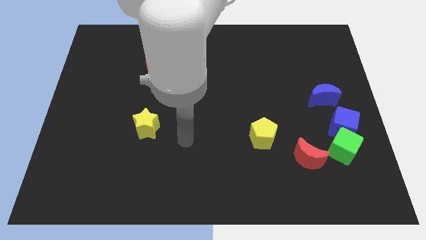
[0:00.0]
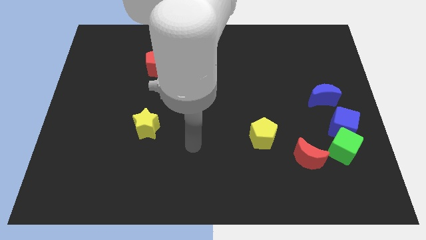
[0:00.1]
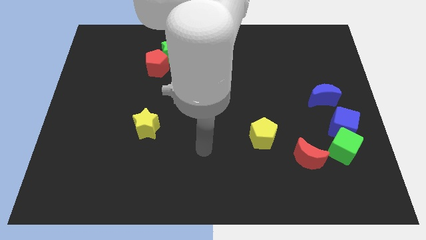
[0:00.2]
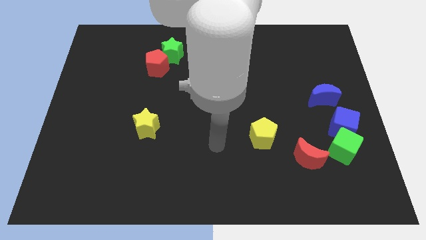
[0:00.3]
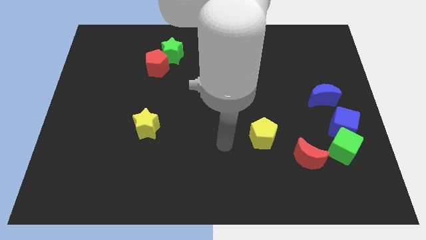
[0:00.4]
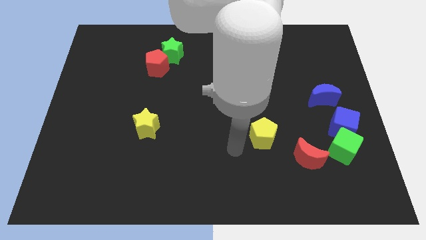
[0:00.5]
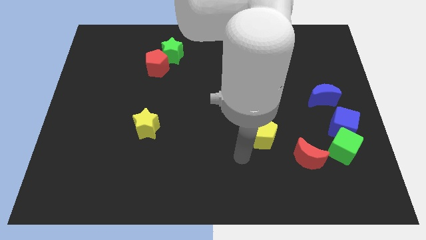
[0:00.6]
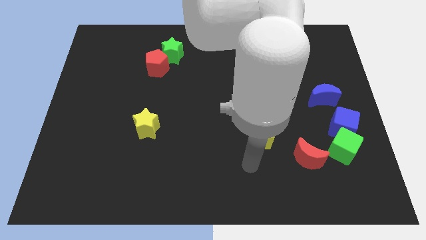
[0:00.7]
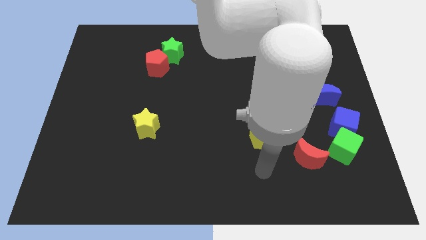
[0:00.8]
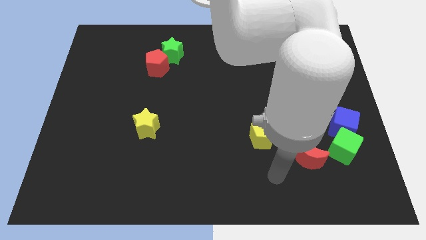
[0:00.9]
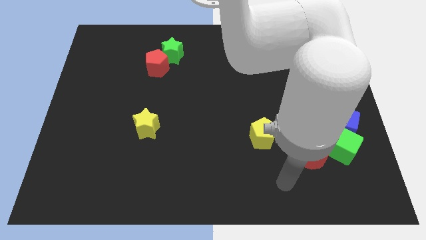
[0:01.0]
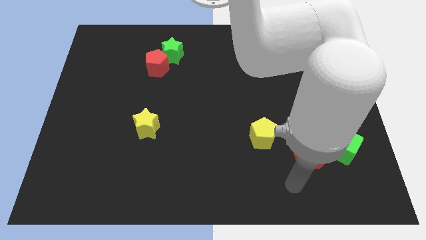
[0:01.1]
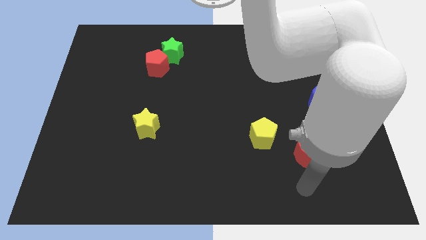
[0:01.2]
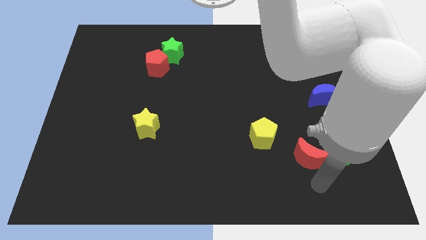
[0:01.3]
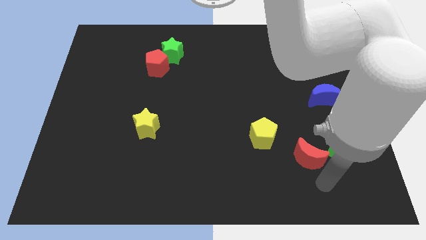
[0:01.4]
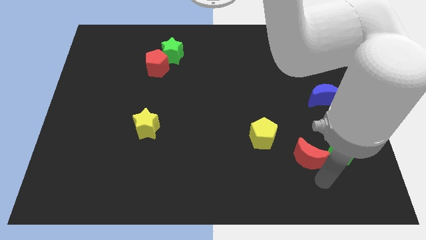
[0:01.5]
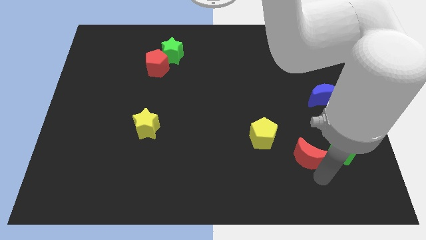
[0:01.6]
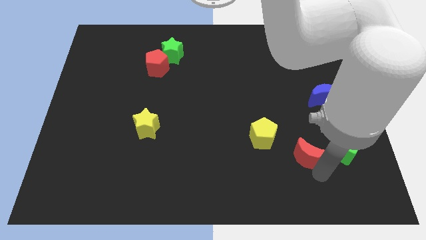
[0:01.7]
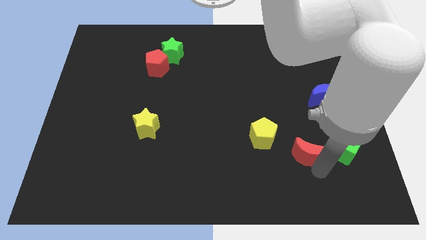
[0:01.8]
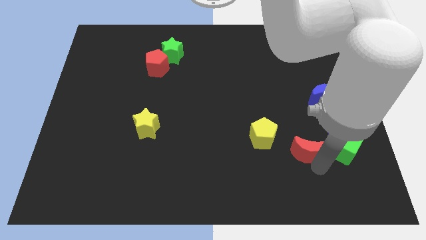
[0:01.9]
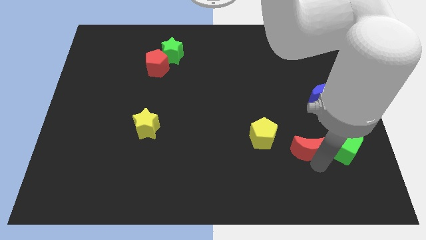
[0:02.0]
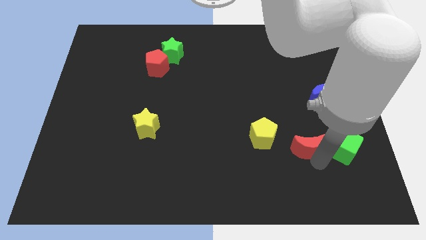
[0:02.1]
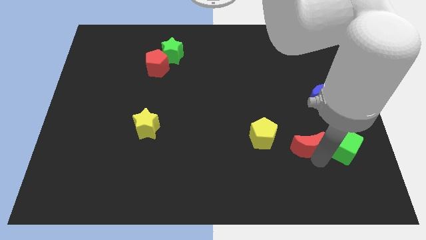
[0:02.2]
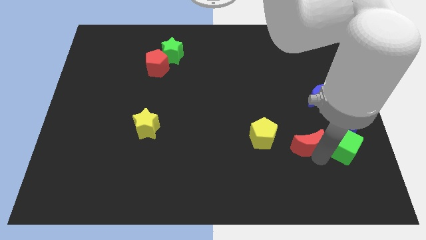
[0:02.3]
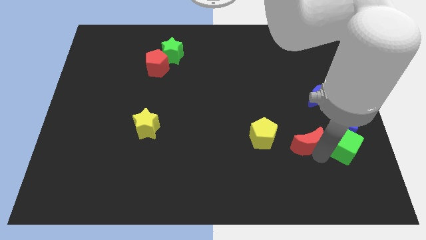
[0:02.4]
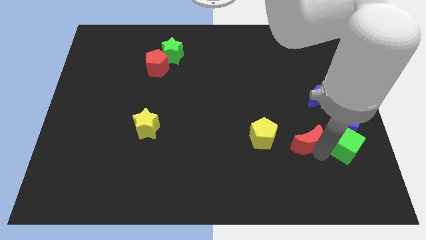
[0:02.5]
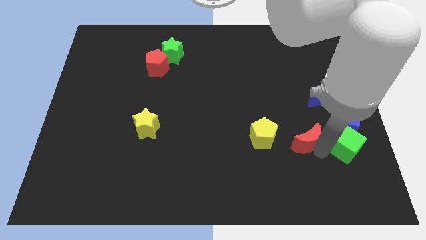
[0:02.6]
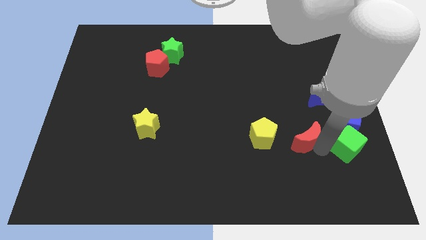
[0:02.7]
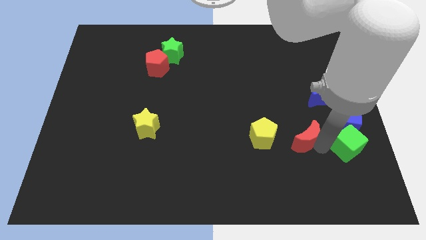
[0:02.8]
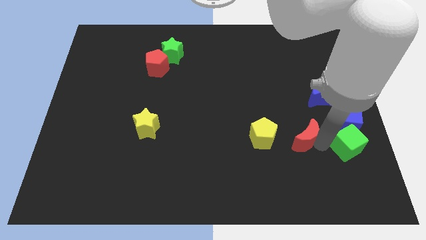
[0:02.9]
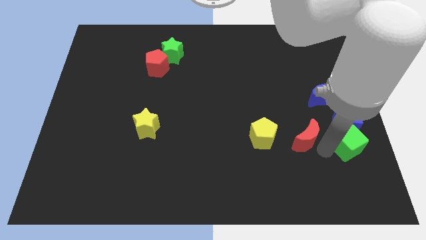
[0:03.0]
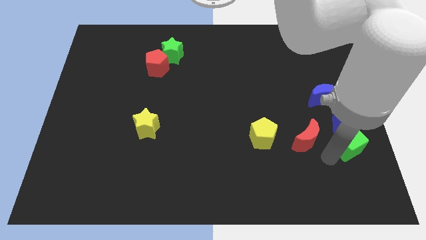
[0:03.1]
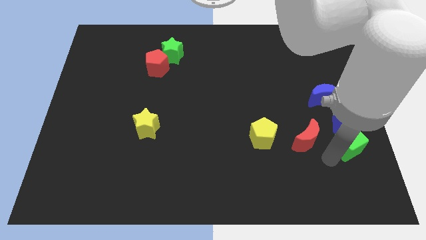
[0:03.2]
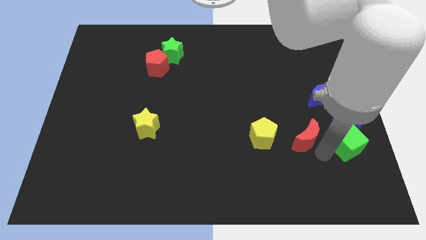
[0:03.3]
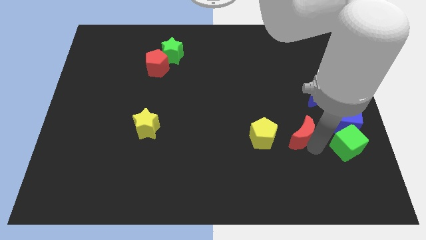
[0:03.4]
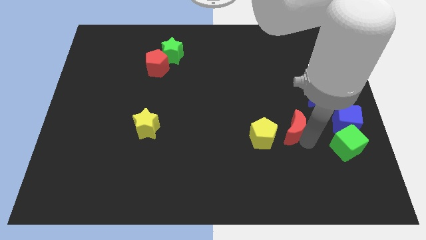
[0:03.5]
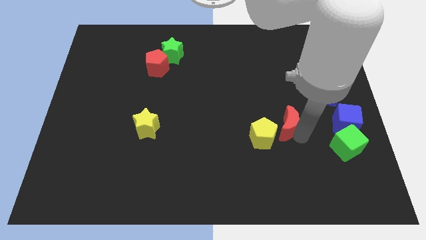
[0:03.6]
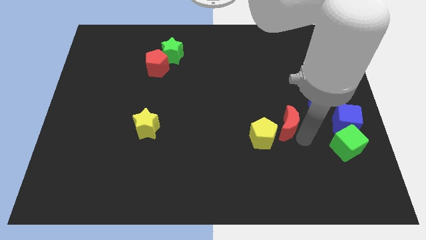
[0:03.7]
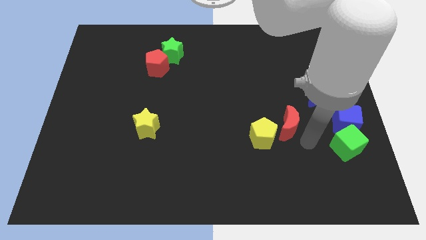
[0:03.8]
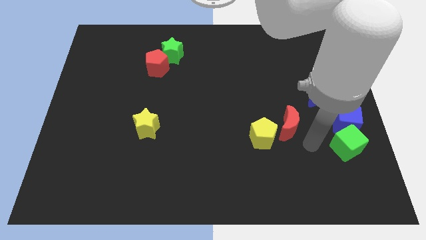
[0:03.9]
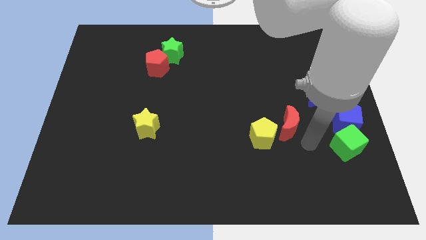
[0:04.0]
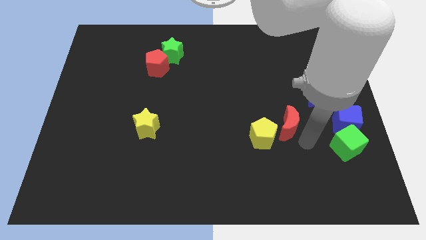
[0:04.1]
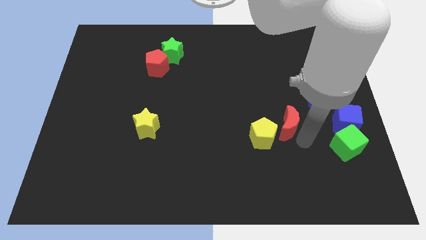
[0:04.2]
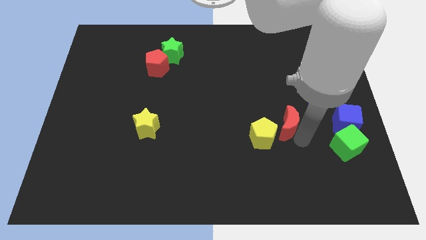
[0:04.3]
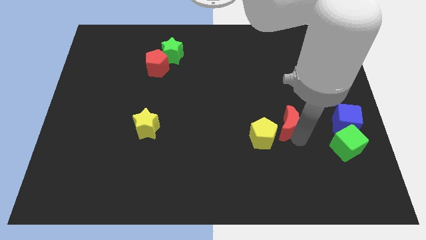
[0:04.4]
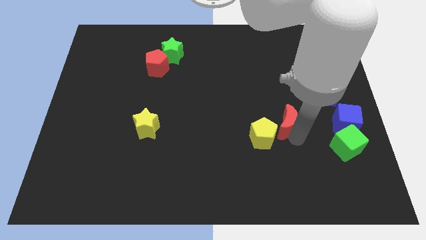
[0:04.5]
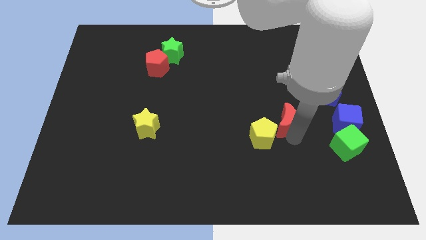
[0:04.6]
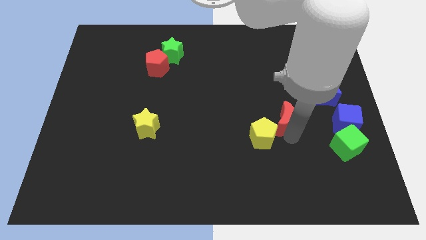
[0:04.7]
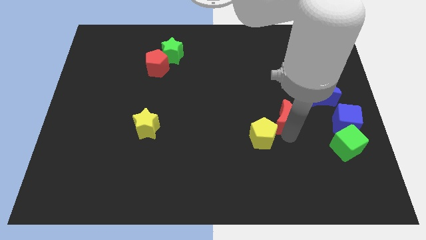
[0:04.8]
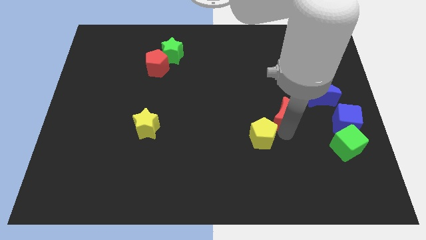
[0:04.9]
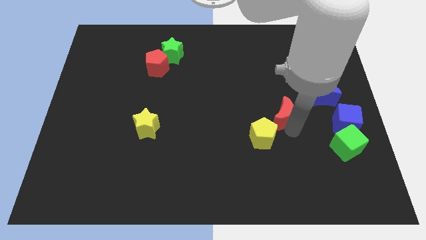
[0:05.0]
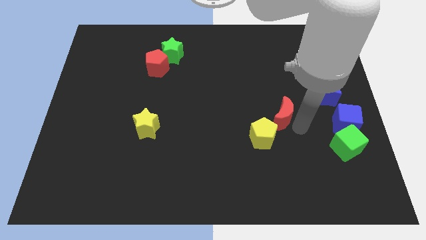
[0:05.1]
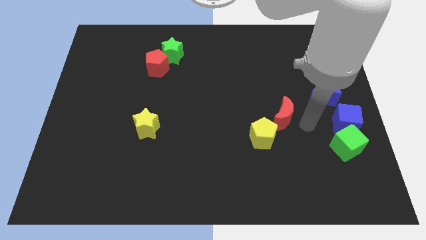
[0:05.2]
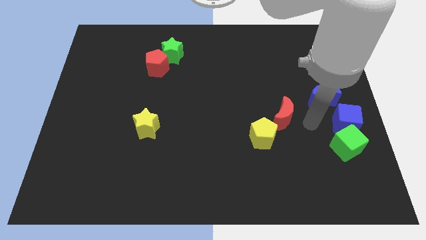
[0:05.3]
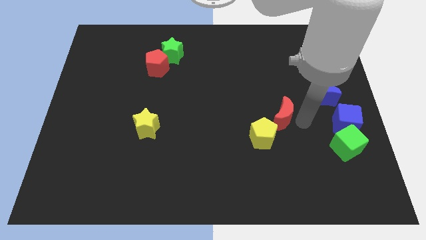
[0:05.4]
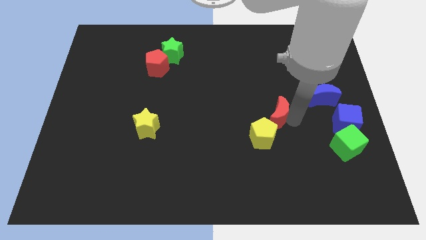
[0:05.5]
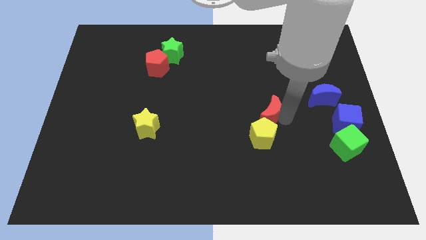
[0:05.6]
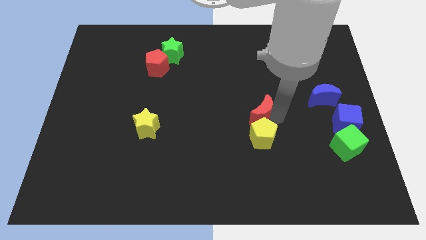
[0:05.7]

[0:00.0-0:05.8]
move the red moon to the middle of the board

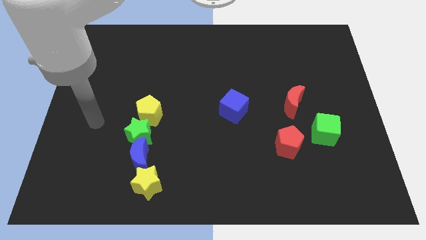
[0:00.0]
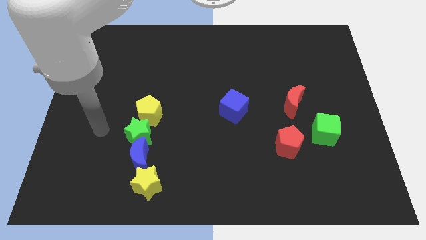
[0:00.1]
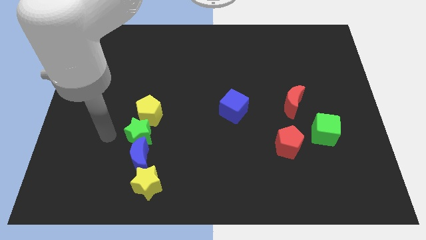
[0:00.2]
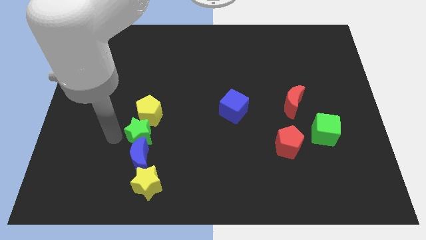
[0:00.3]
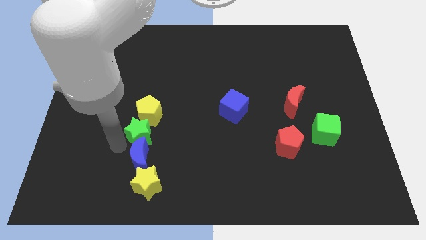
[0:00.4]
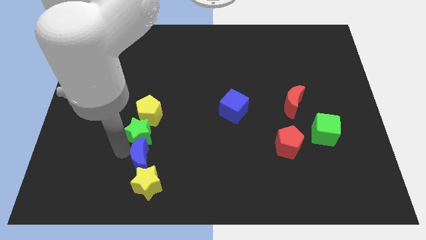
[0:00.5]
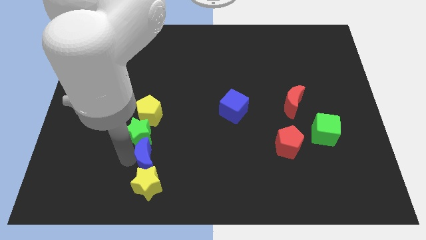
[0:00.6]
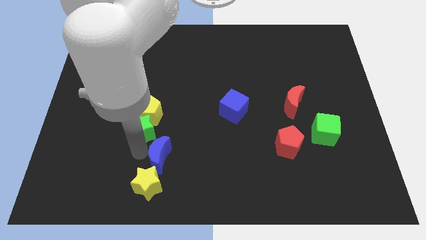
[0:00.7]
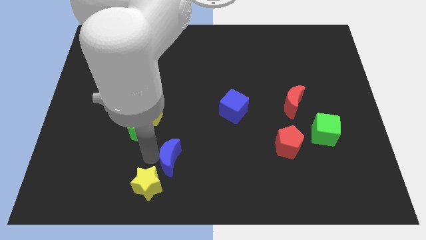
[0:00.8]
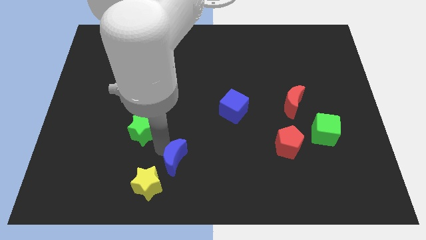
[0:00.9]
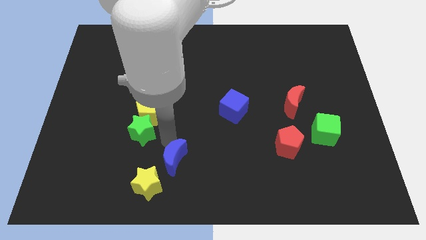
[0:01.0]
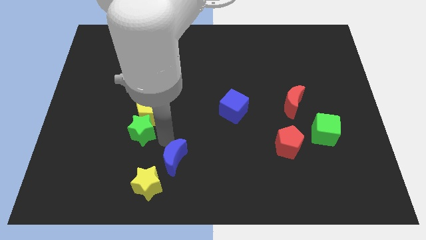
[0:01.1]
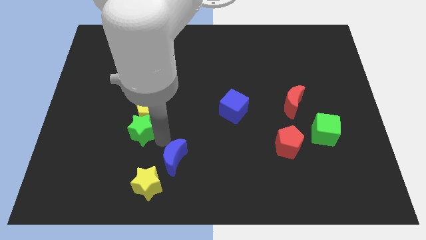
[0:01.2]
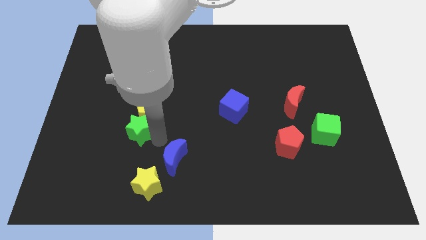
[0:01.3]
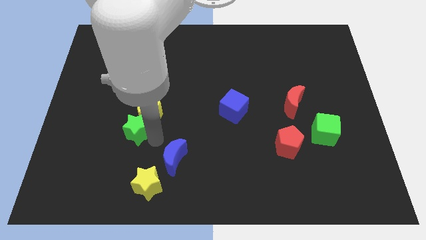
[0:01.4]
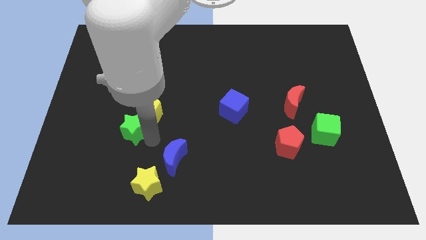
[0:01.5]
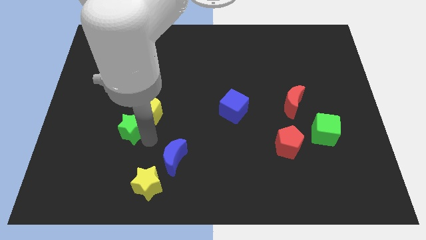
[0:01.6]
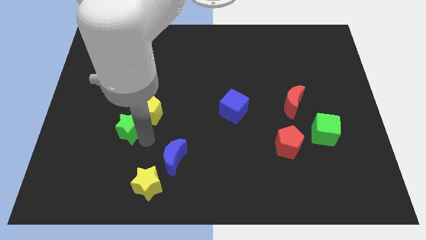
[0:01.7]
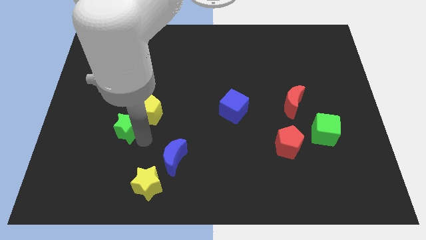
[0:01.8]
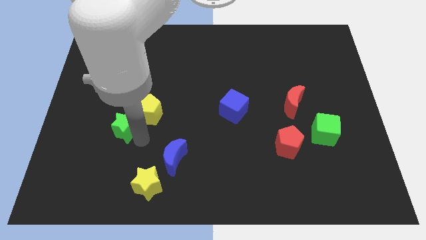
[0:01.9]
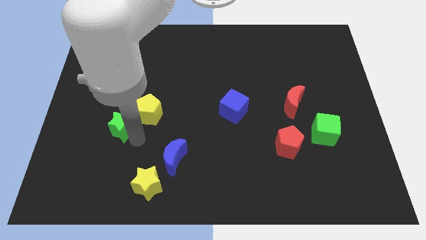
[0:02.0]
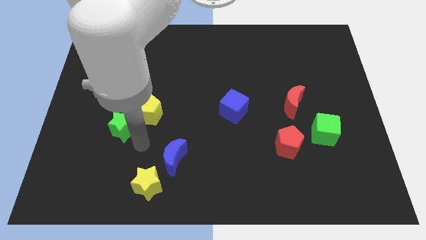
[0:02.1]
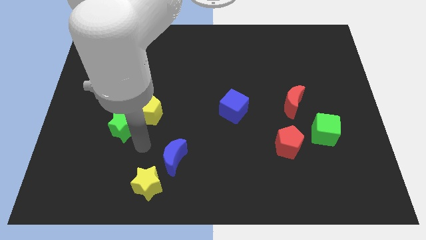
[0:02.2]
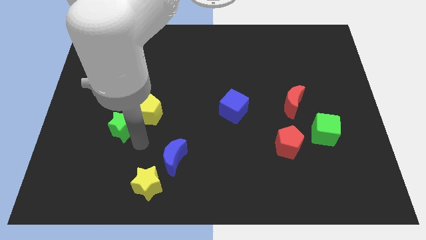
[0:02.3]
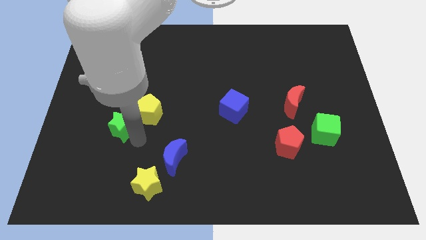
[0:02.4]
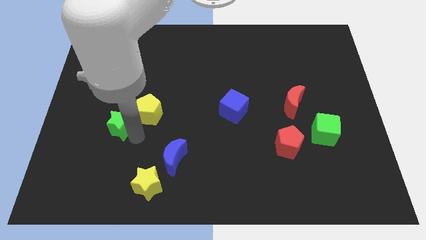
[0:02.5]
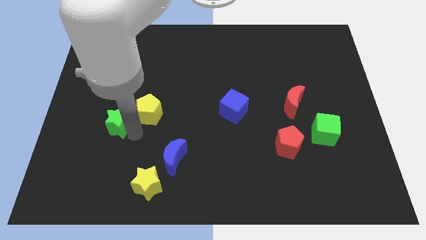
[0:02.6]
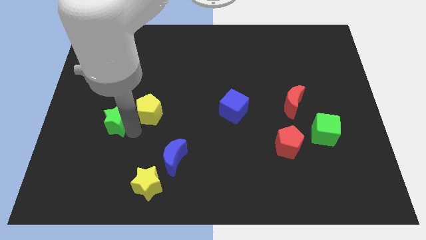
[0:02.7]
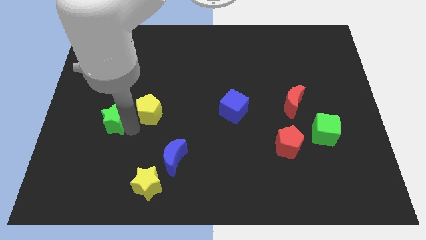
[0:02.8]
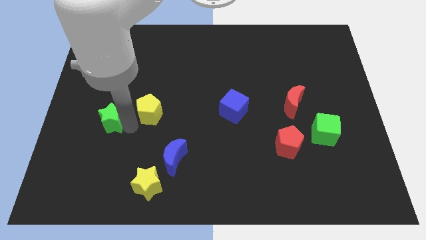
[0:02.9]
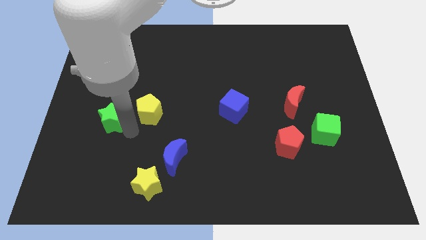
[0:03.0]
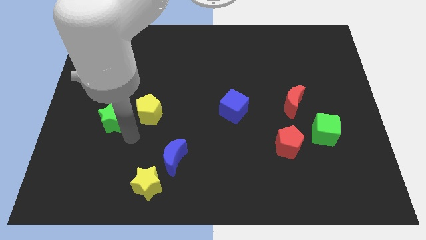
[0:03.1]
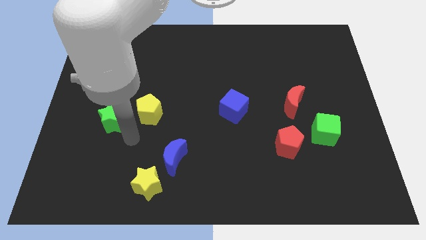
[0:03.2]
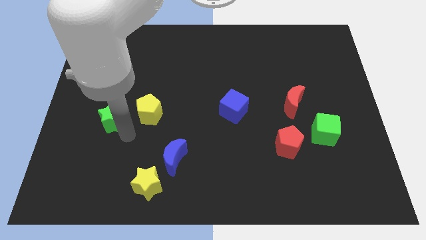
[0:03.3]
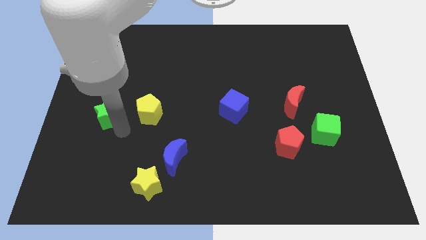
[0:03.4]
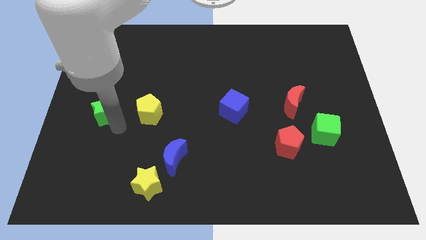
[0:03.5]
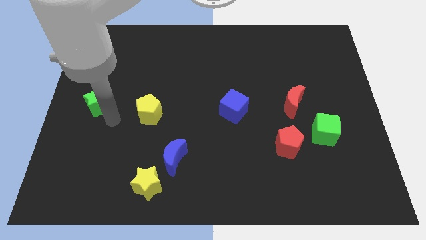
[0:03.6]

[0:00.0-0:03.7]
slide the green star to the left side
